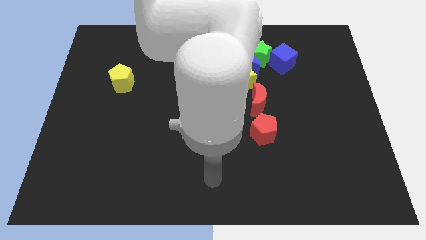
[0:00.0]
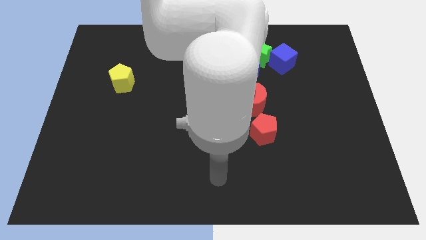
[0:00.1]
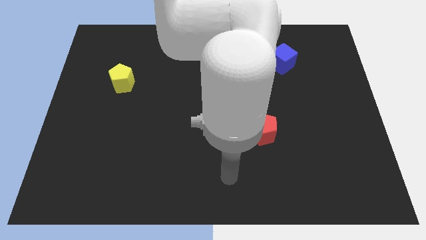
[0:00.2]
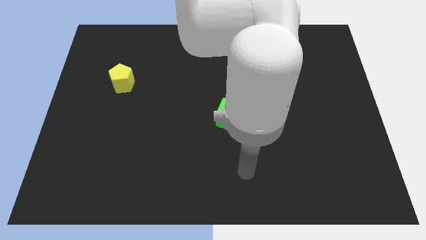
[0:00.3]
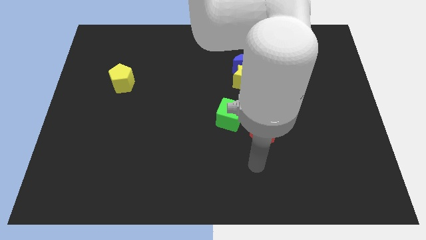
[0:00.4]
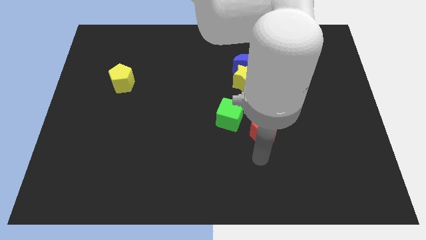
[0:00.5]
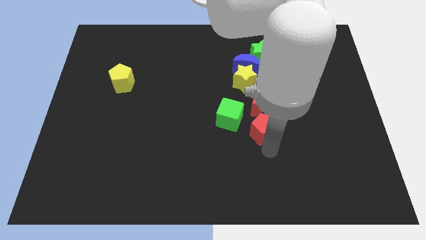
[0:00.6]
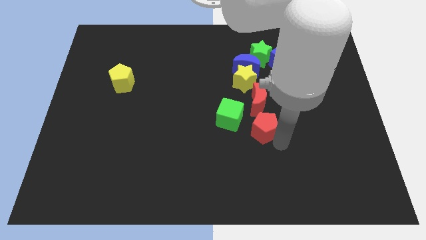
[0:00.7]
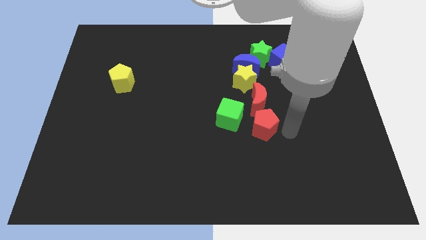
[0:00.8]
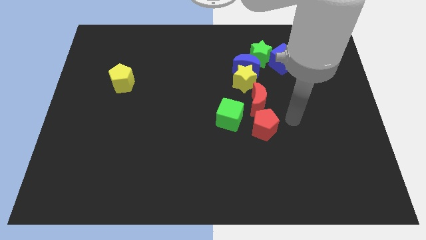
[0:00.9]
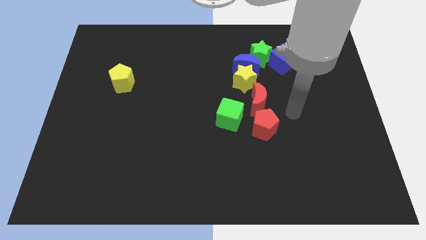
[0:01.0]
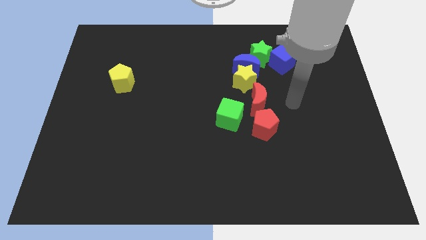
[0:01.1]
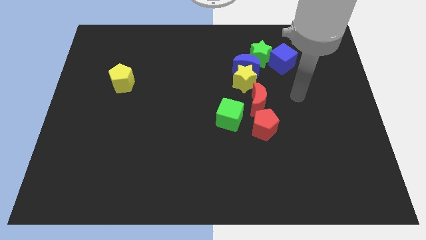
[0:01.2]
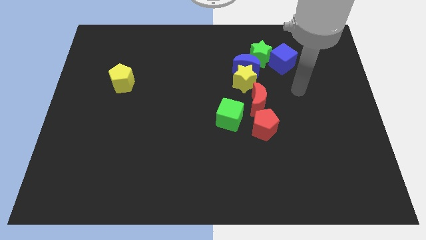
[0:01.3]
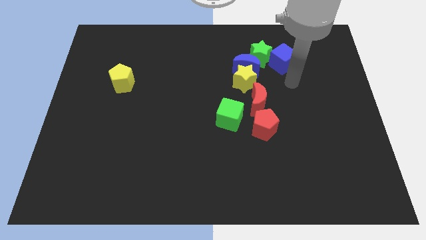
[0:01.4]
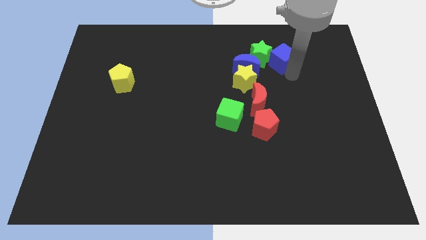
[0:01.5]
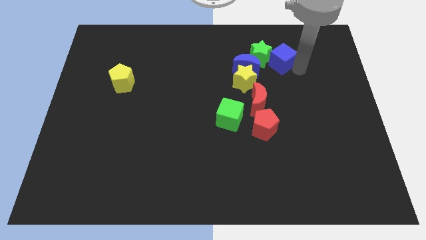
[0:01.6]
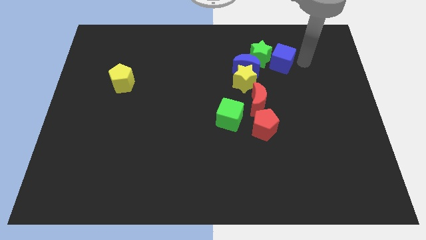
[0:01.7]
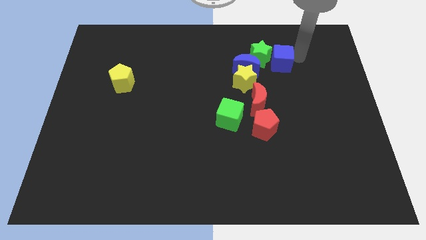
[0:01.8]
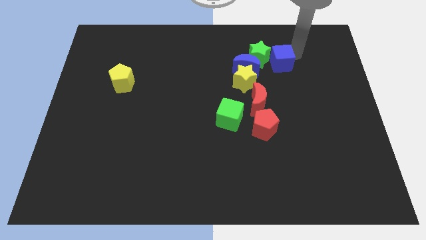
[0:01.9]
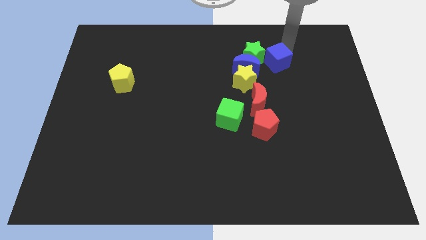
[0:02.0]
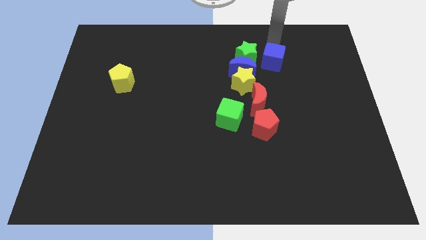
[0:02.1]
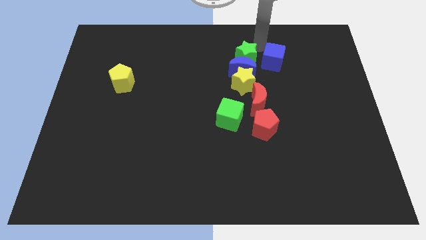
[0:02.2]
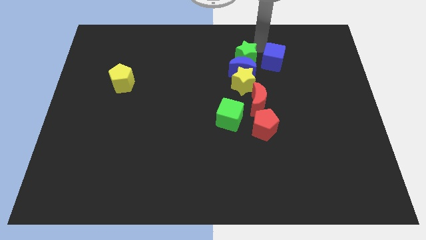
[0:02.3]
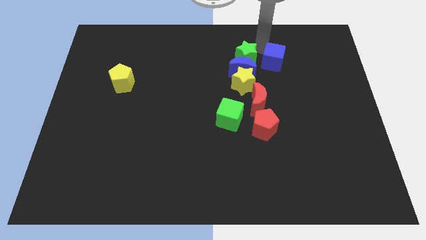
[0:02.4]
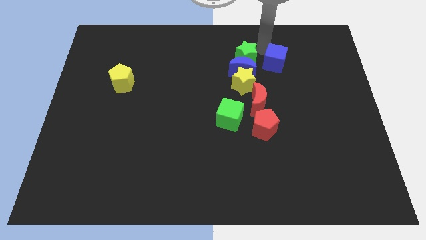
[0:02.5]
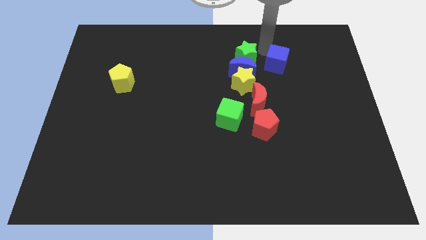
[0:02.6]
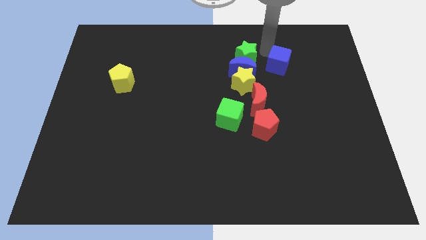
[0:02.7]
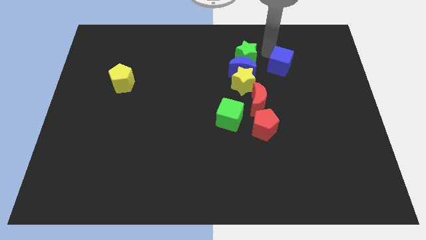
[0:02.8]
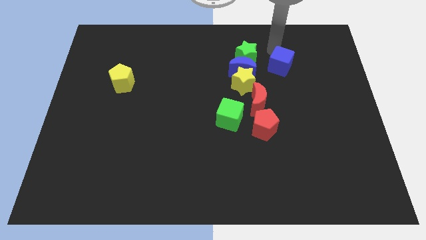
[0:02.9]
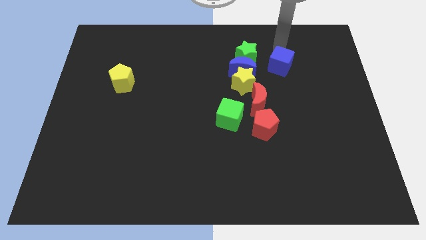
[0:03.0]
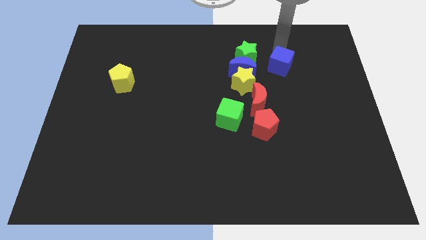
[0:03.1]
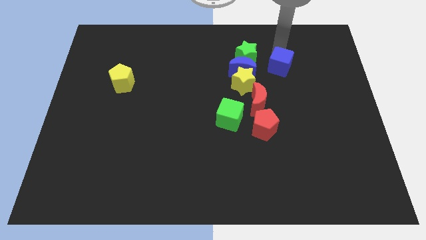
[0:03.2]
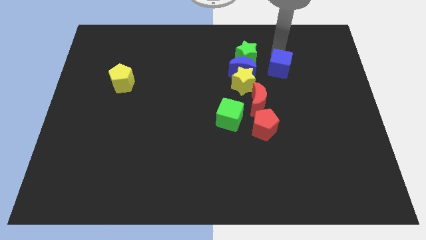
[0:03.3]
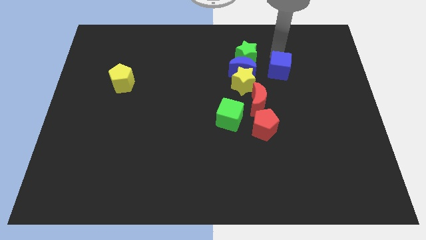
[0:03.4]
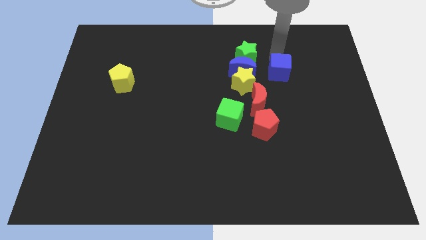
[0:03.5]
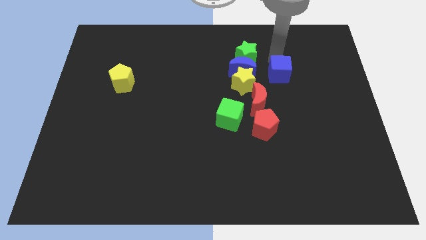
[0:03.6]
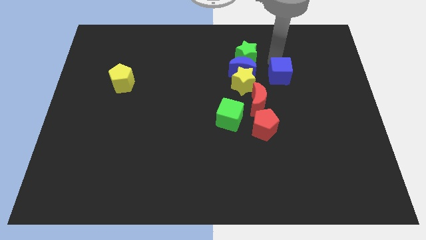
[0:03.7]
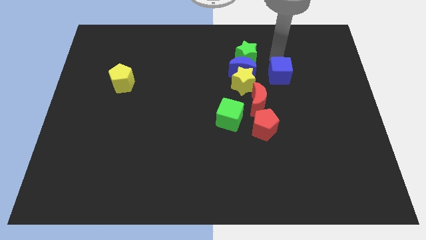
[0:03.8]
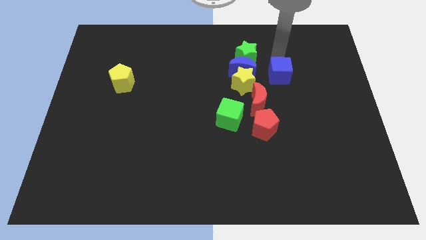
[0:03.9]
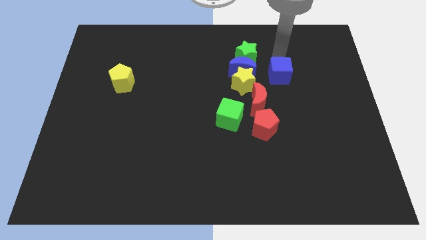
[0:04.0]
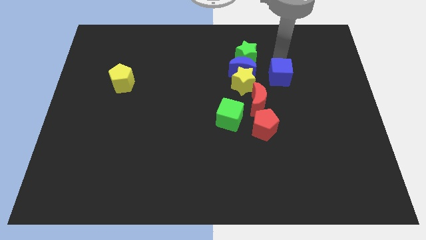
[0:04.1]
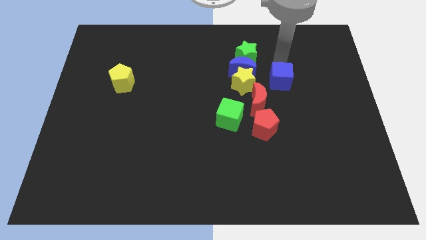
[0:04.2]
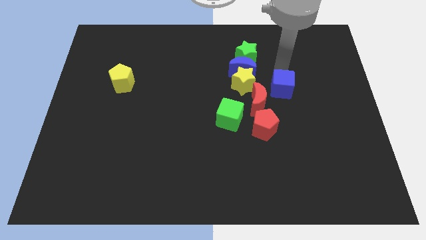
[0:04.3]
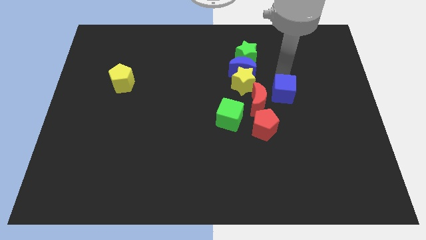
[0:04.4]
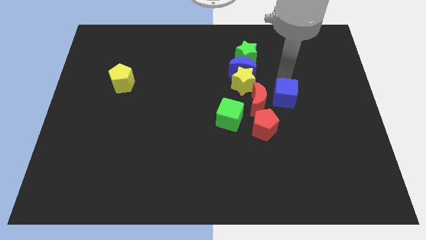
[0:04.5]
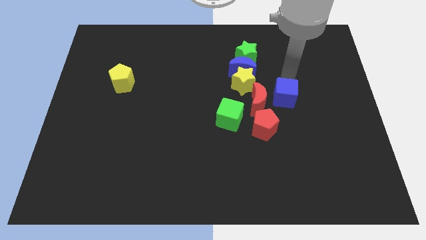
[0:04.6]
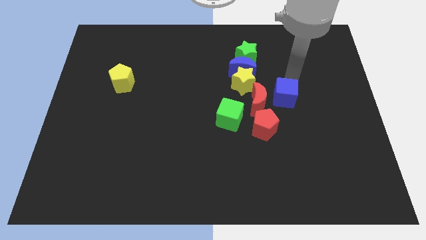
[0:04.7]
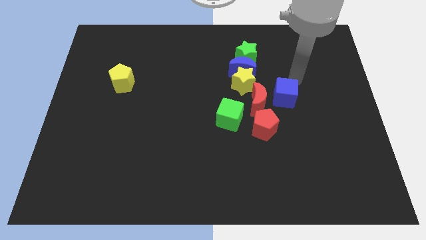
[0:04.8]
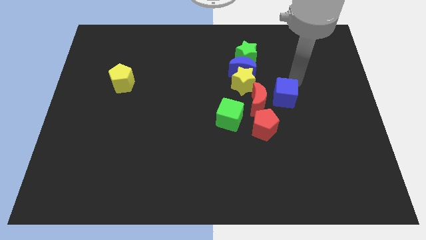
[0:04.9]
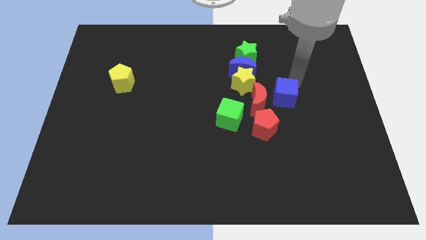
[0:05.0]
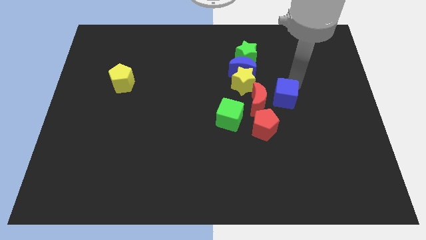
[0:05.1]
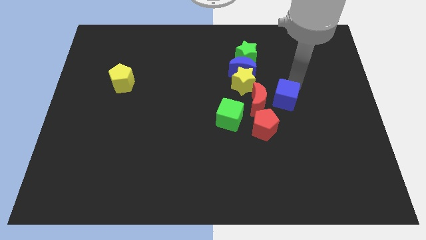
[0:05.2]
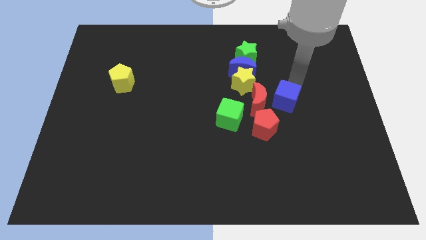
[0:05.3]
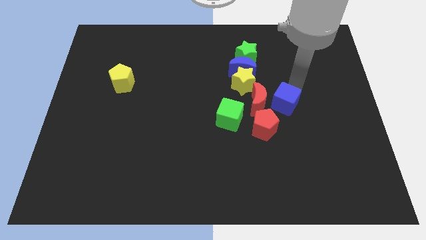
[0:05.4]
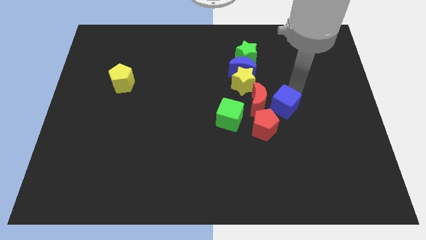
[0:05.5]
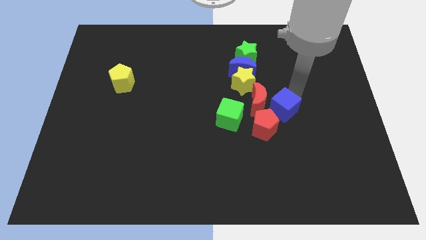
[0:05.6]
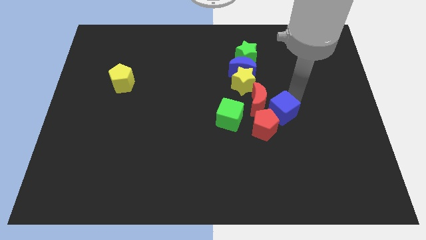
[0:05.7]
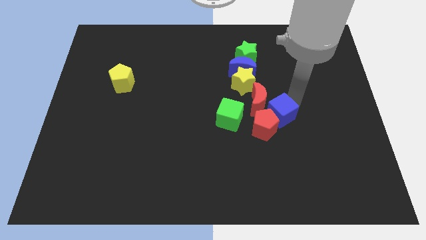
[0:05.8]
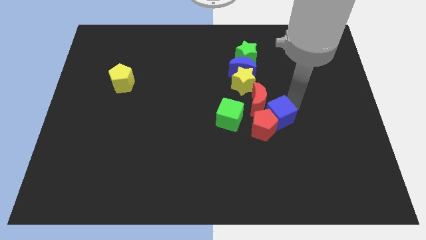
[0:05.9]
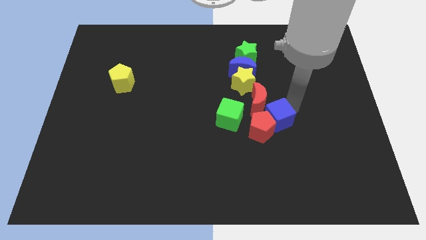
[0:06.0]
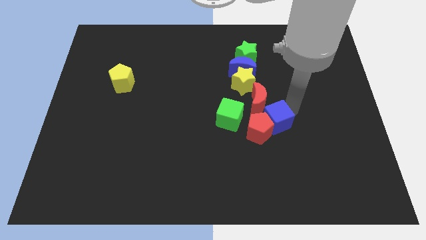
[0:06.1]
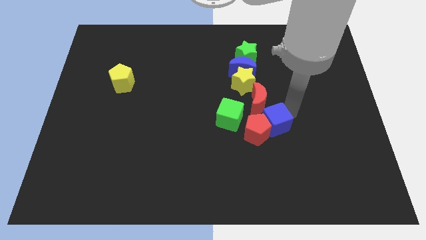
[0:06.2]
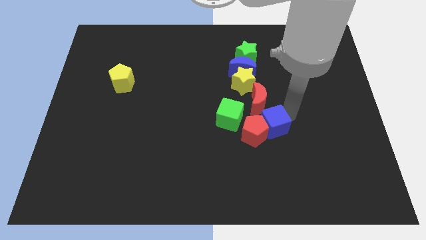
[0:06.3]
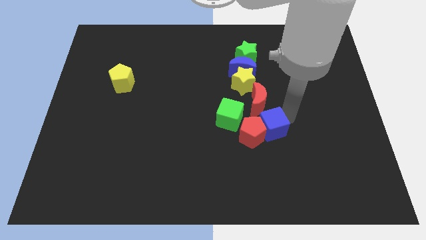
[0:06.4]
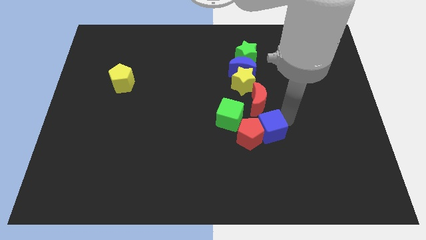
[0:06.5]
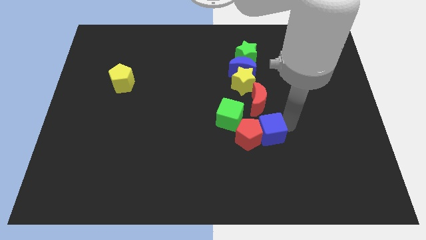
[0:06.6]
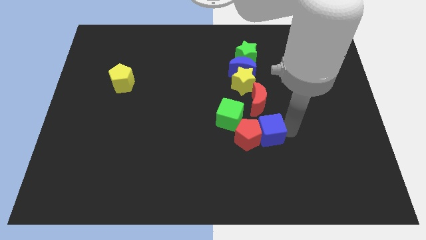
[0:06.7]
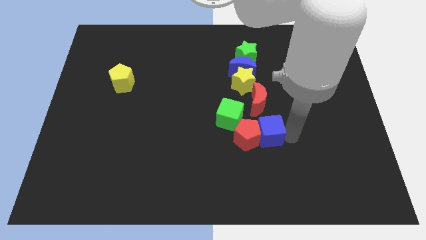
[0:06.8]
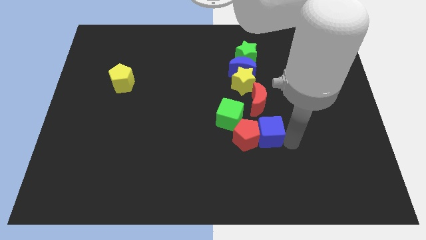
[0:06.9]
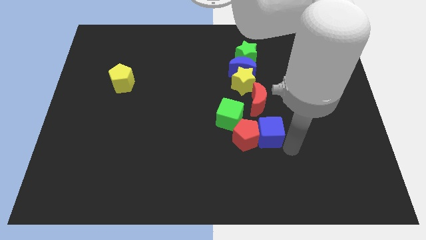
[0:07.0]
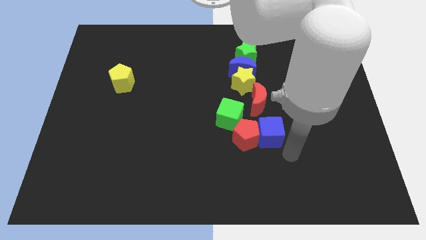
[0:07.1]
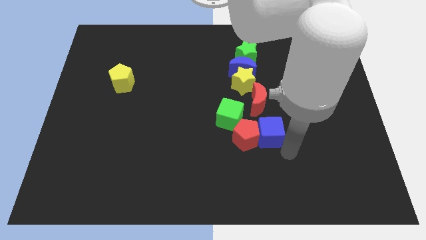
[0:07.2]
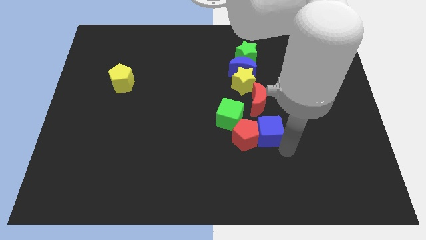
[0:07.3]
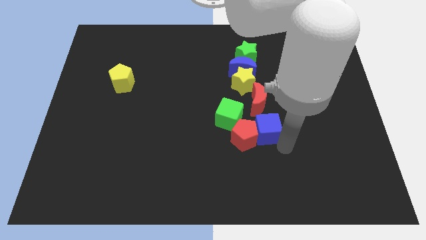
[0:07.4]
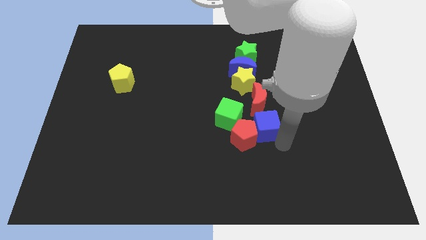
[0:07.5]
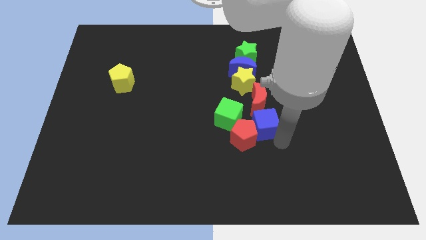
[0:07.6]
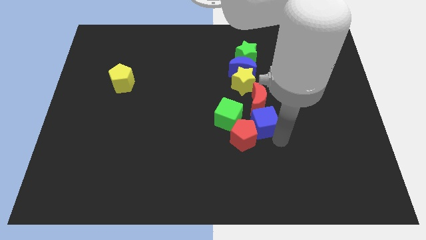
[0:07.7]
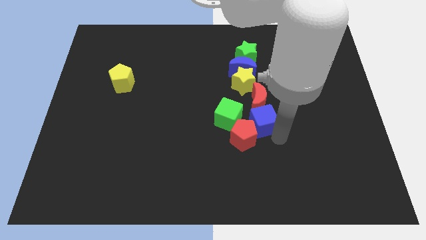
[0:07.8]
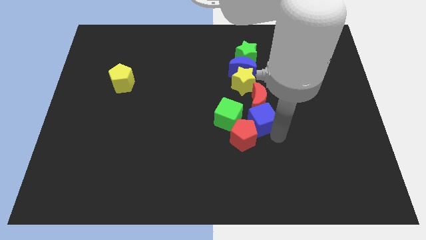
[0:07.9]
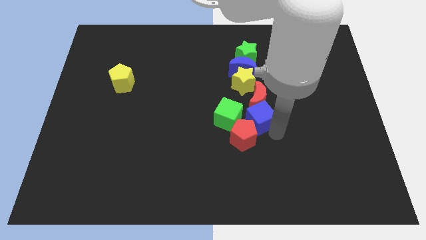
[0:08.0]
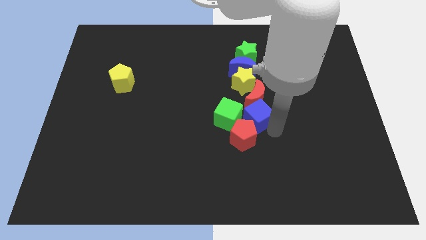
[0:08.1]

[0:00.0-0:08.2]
push the blue cube to the bottom of the blue moon
